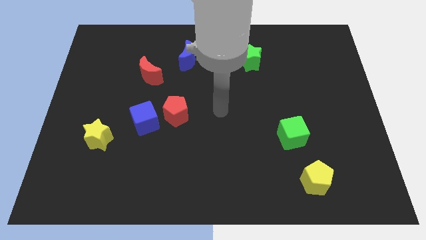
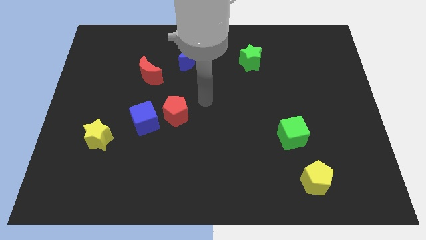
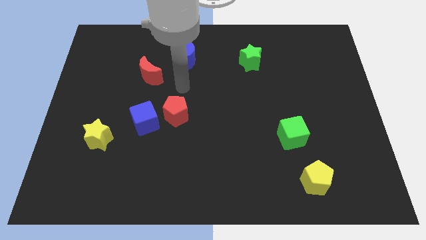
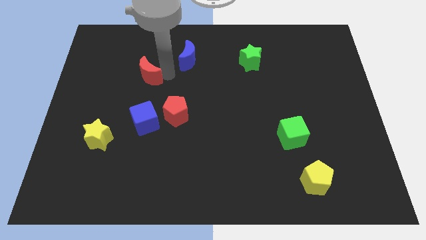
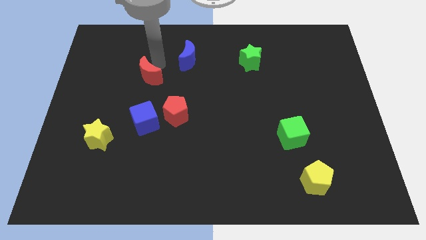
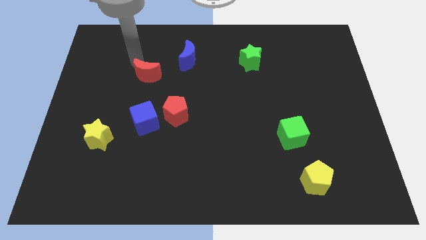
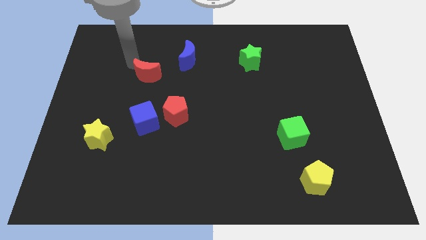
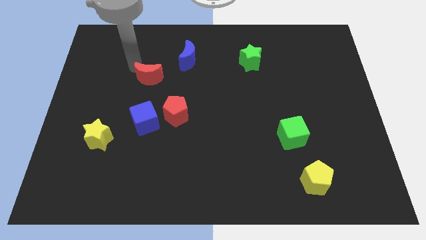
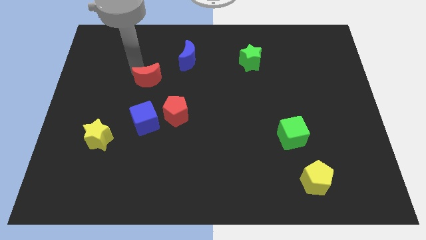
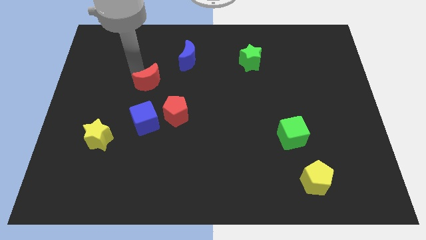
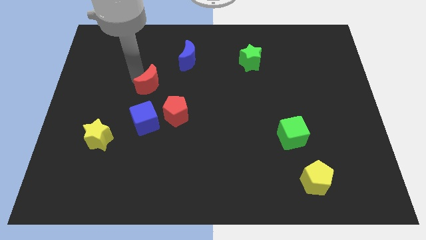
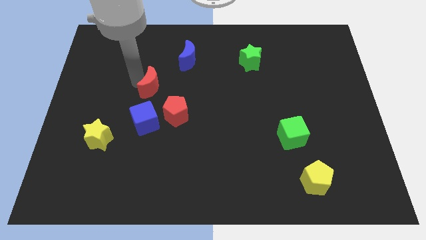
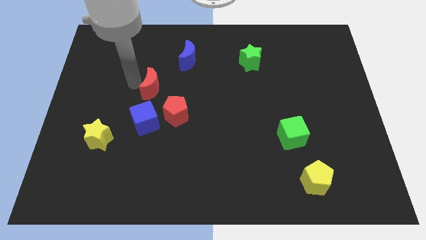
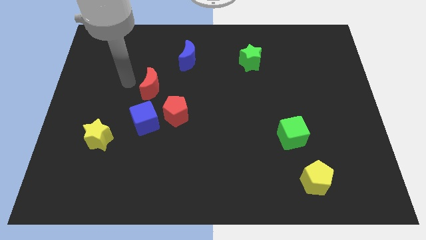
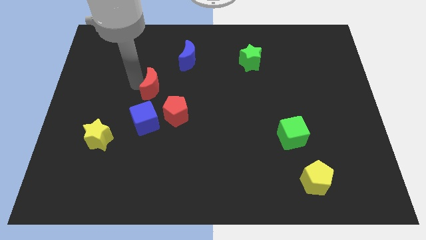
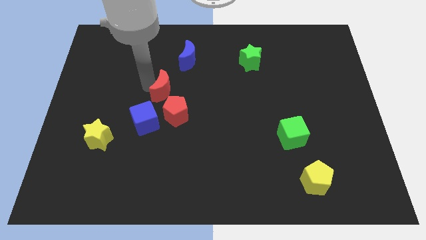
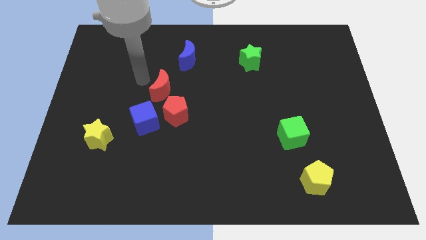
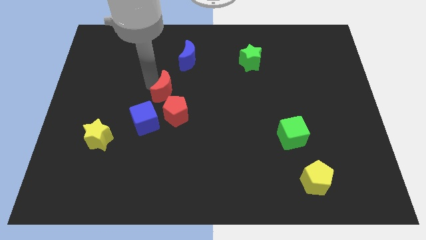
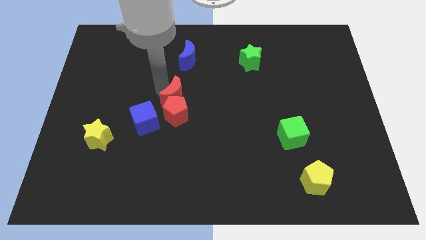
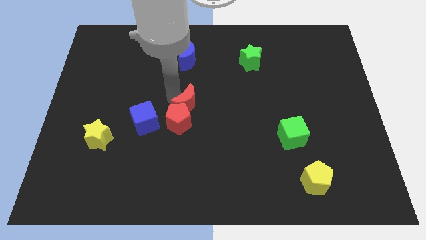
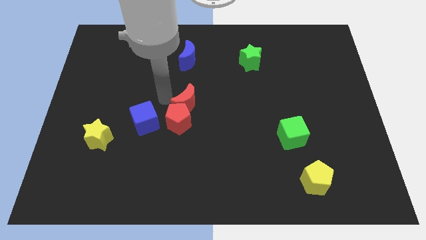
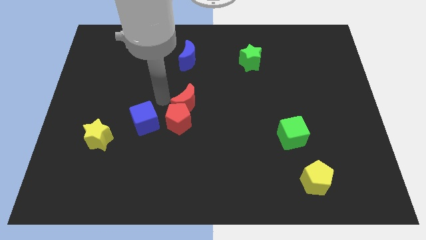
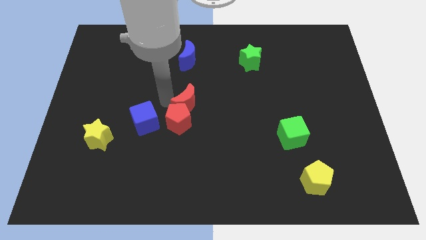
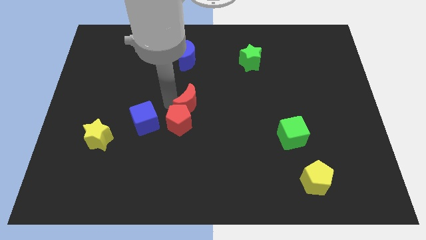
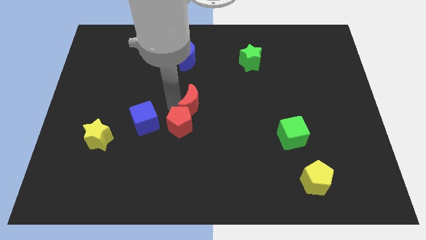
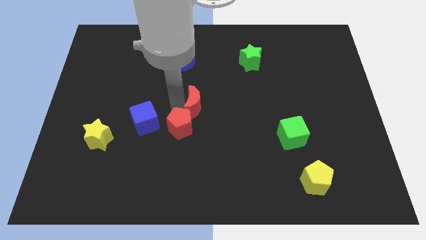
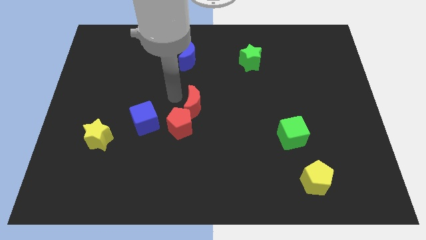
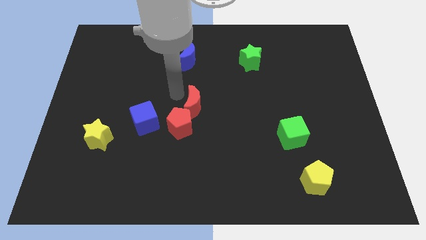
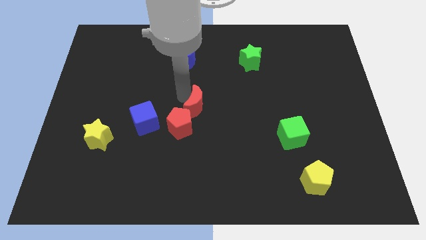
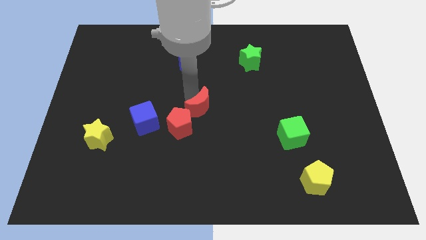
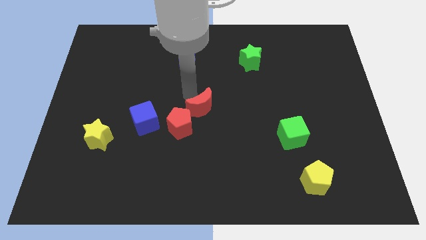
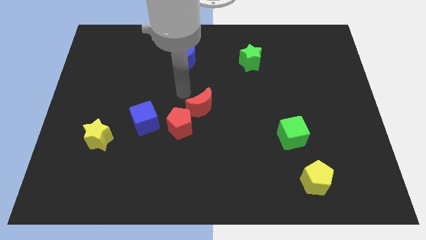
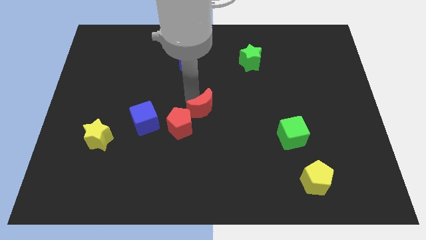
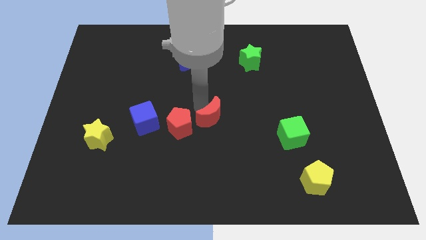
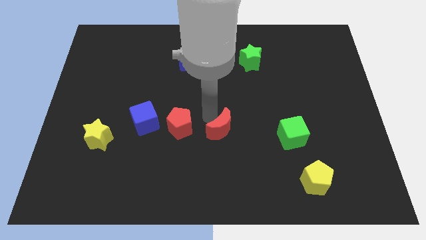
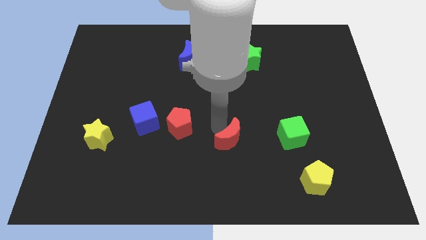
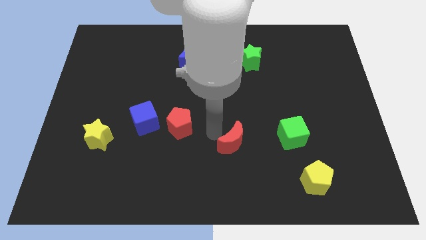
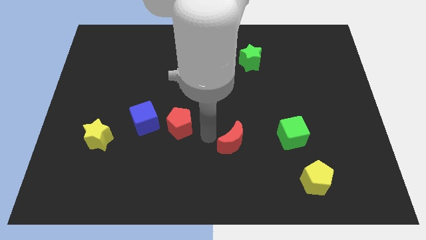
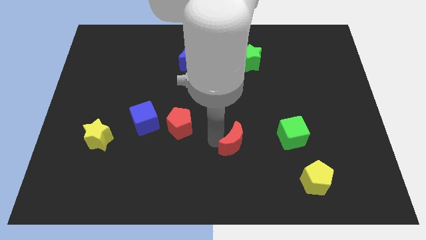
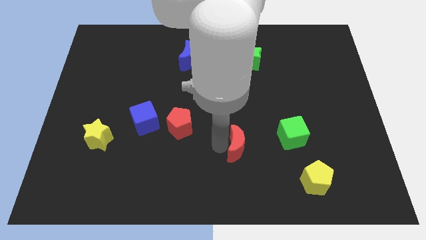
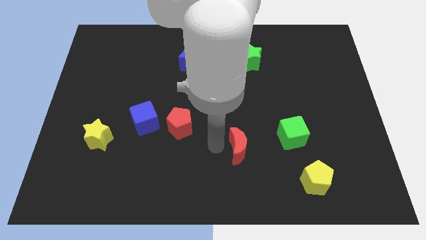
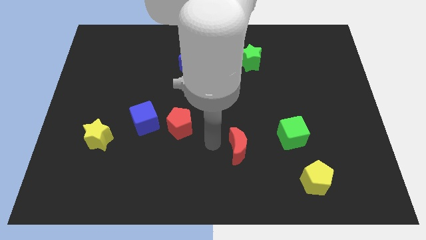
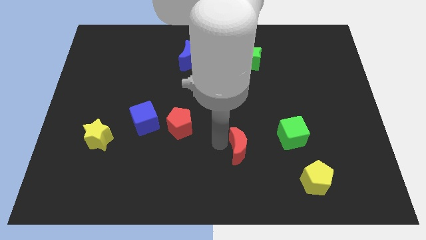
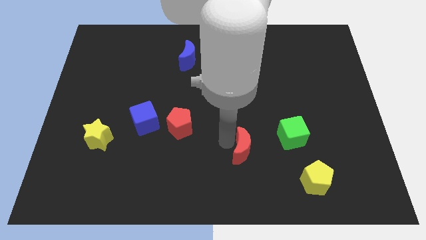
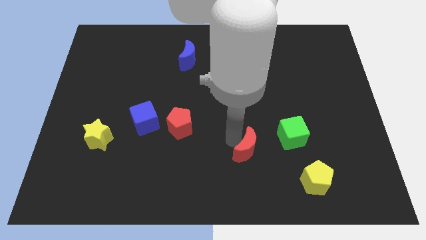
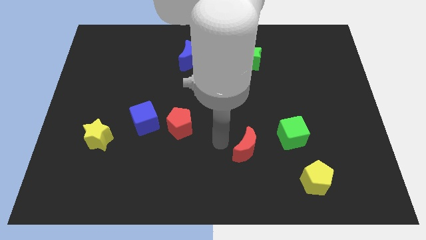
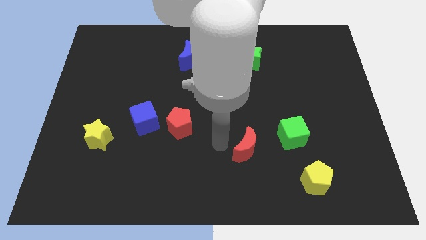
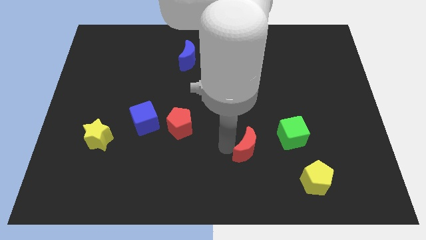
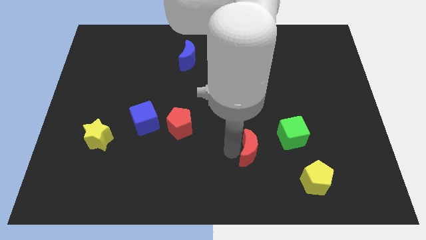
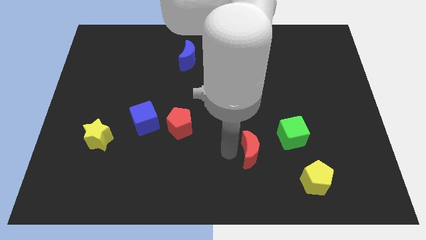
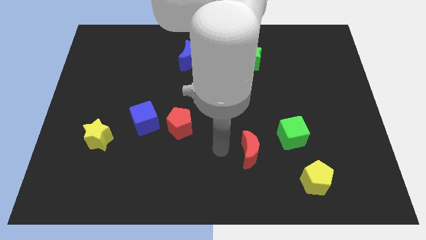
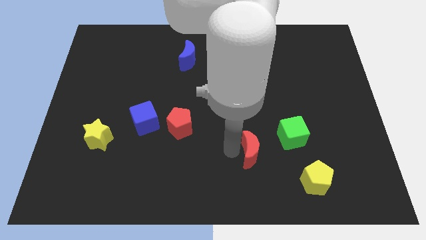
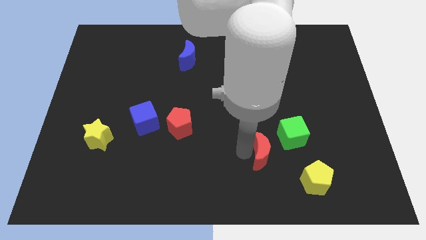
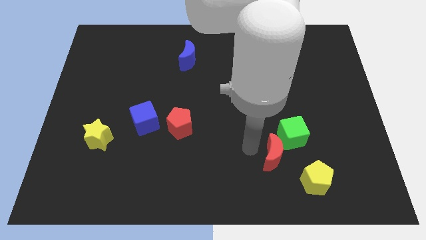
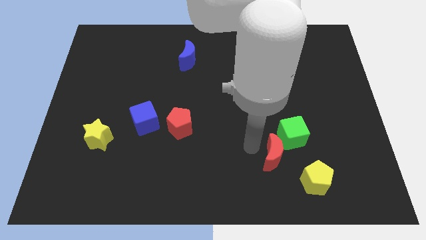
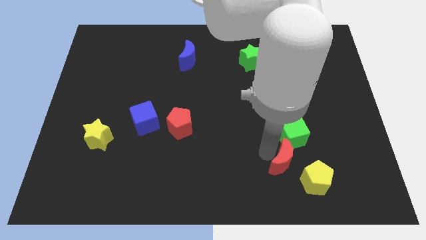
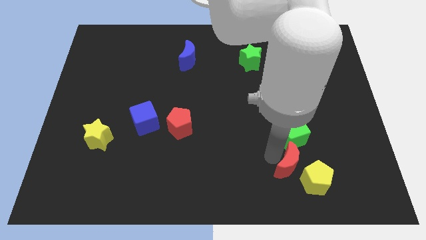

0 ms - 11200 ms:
put the red moon next to the yellow pentagon
